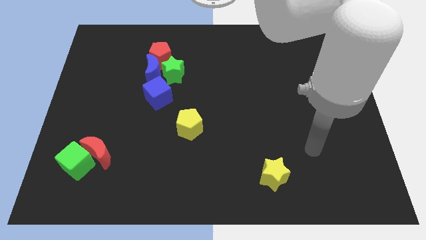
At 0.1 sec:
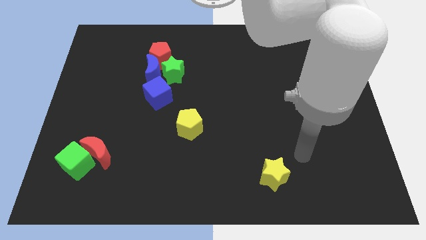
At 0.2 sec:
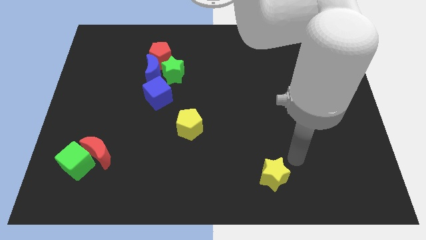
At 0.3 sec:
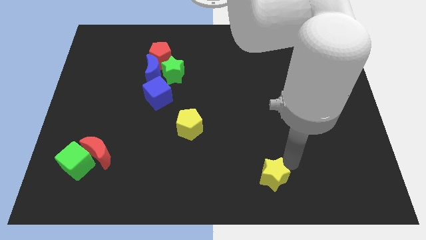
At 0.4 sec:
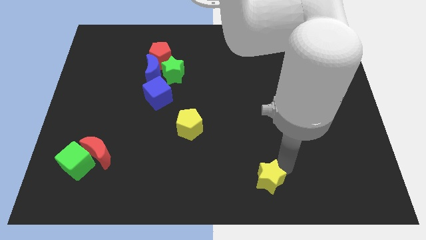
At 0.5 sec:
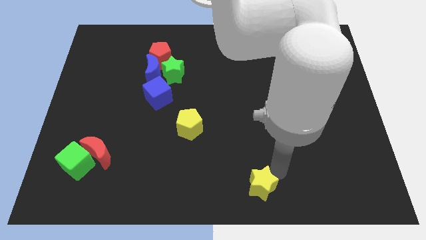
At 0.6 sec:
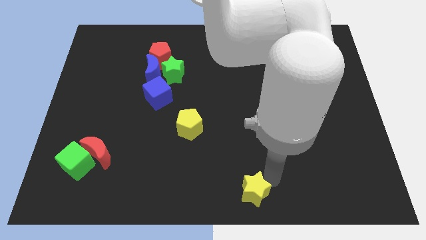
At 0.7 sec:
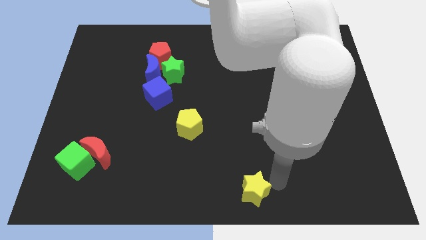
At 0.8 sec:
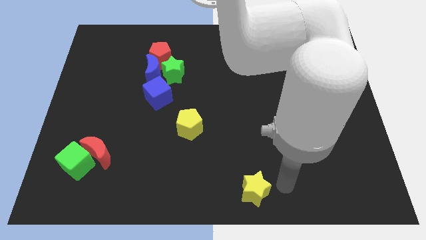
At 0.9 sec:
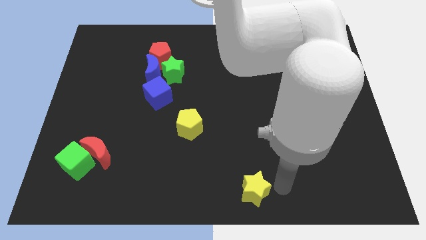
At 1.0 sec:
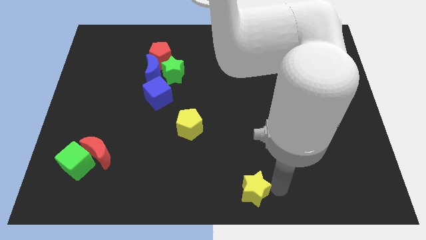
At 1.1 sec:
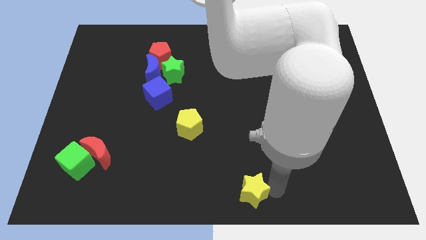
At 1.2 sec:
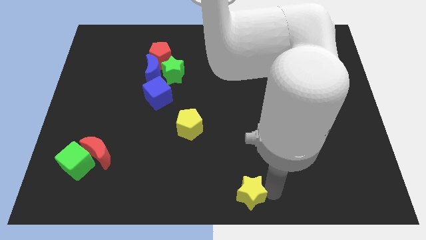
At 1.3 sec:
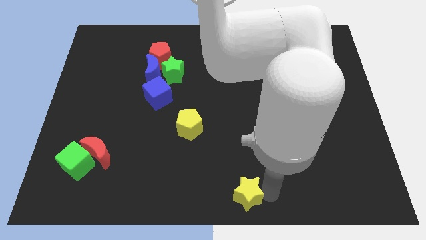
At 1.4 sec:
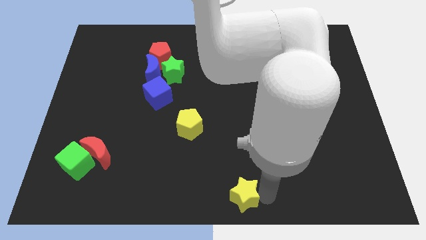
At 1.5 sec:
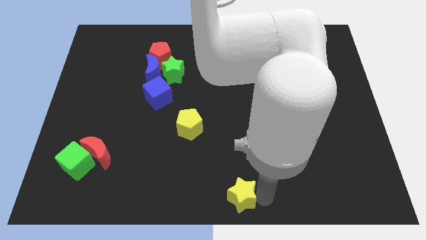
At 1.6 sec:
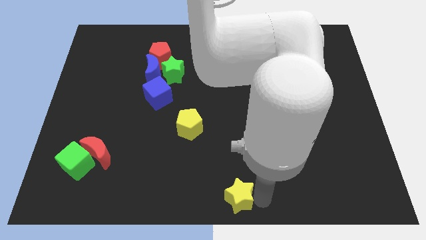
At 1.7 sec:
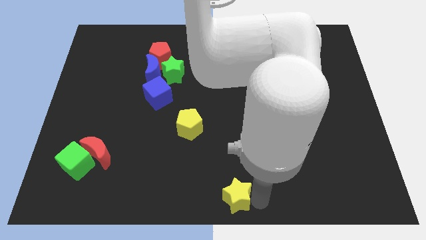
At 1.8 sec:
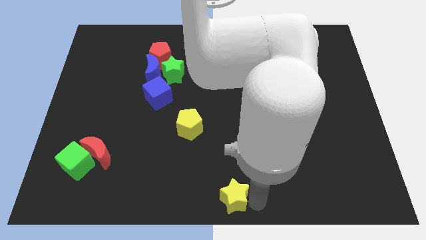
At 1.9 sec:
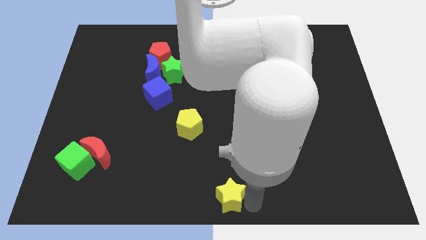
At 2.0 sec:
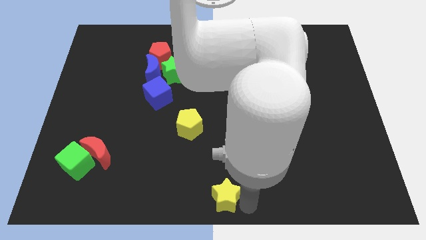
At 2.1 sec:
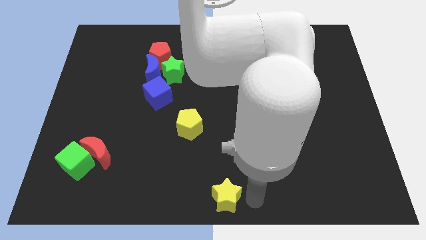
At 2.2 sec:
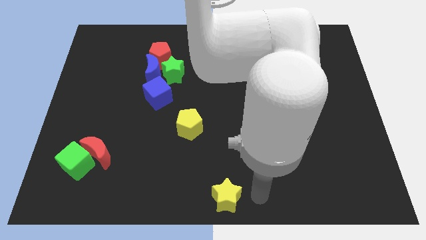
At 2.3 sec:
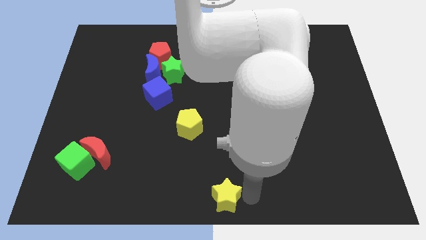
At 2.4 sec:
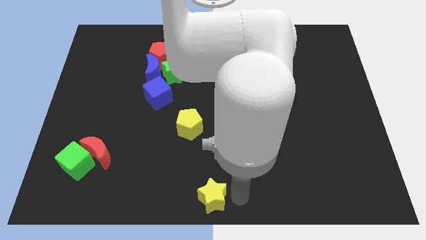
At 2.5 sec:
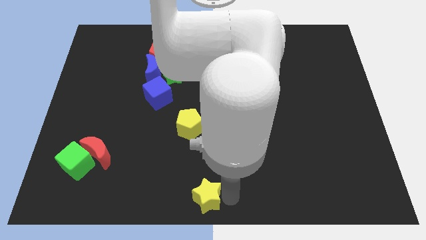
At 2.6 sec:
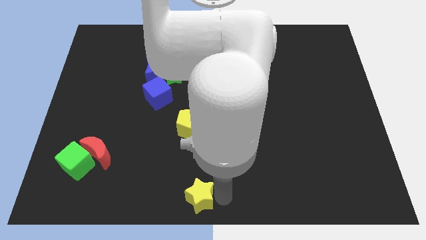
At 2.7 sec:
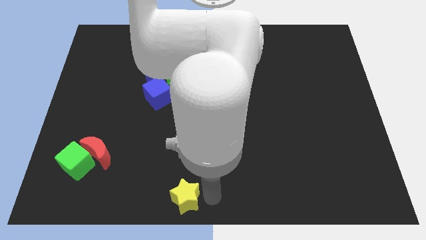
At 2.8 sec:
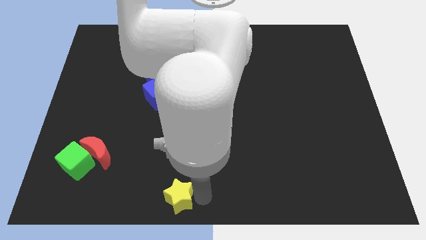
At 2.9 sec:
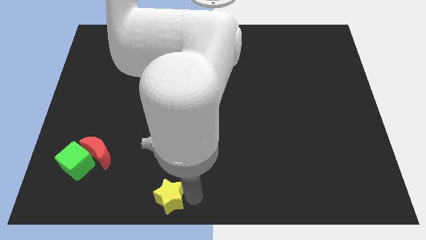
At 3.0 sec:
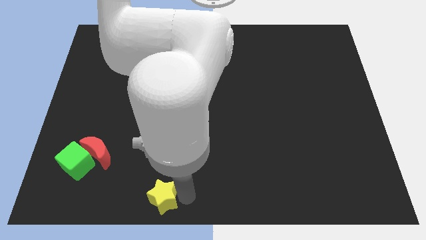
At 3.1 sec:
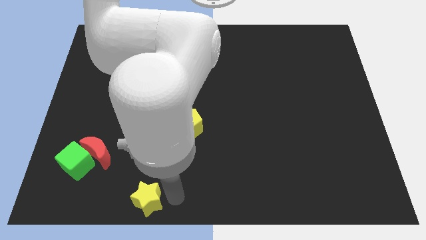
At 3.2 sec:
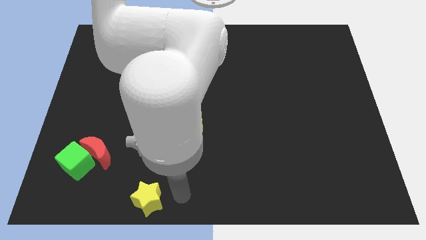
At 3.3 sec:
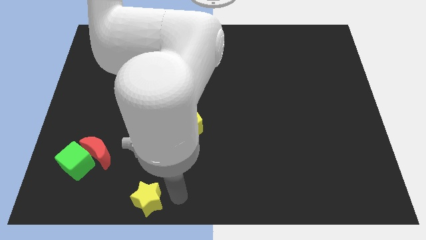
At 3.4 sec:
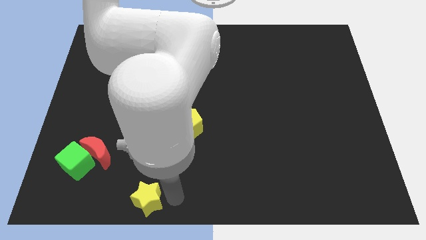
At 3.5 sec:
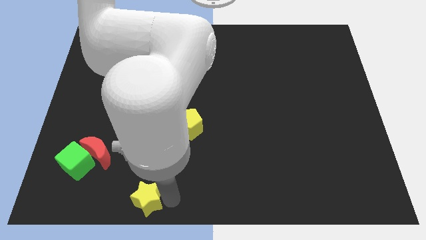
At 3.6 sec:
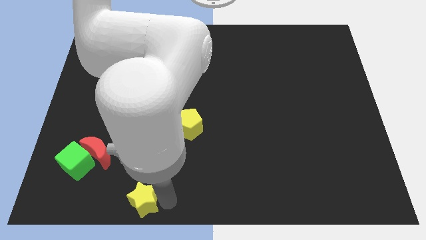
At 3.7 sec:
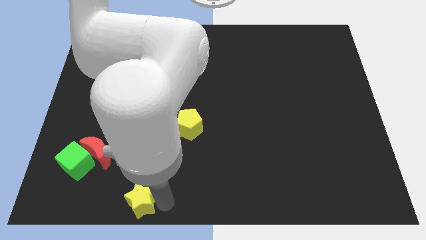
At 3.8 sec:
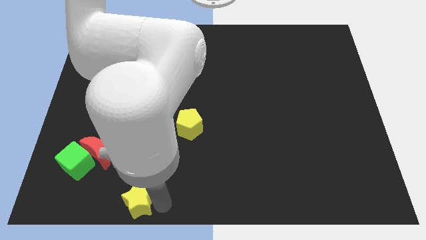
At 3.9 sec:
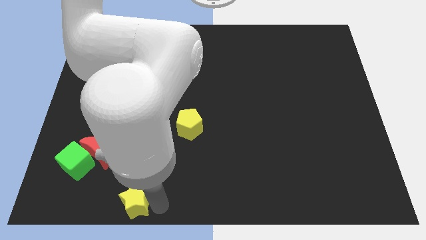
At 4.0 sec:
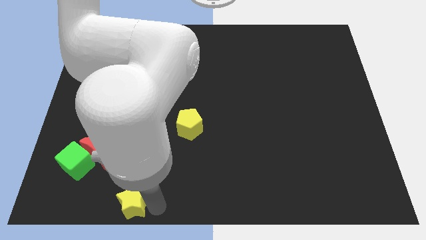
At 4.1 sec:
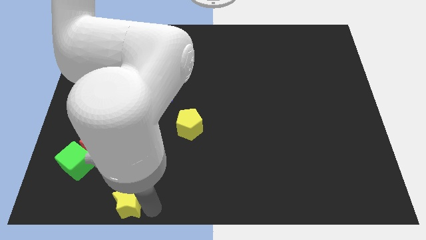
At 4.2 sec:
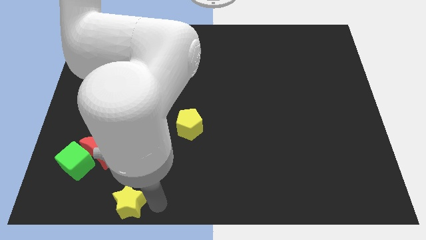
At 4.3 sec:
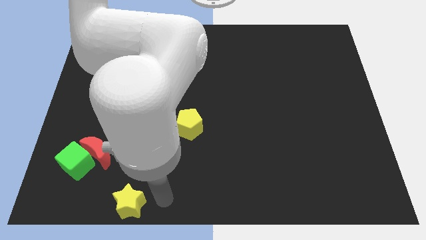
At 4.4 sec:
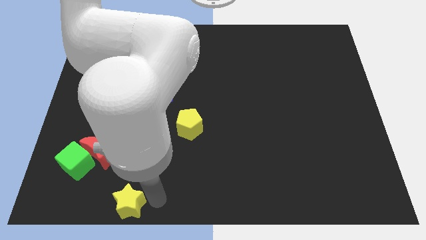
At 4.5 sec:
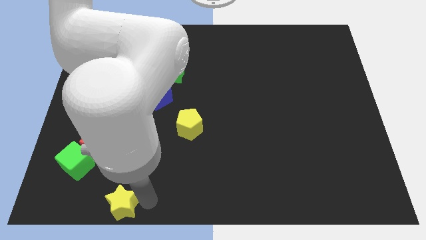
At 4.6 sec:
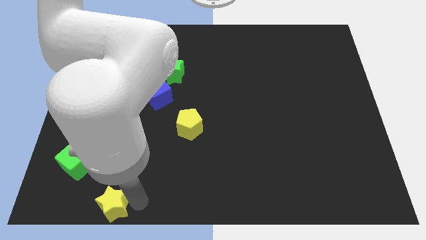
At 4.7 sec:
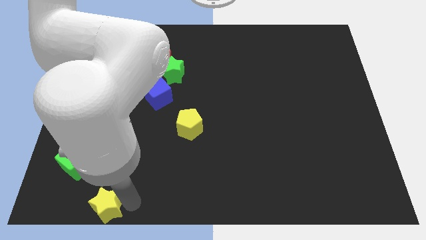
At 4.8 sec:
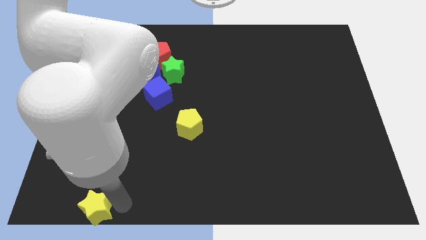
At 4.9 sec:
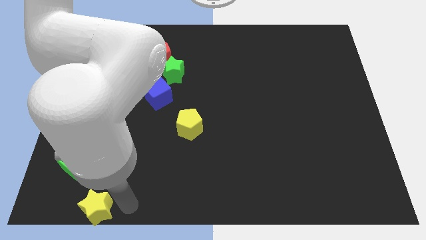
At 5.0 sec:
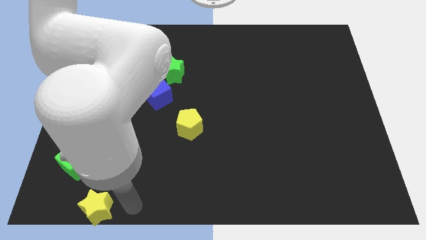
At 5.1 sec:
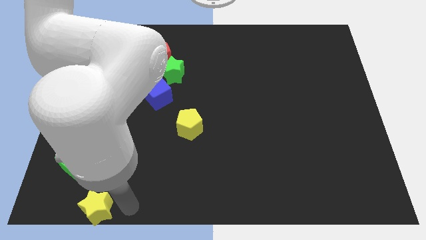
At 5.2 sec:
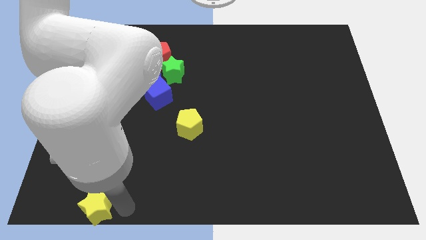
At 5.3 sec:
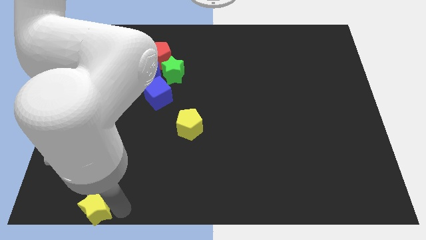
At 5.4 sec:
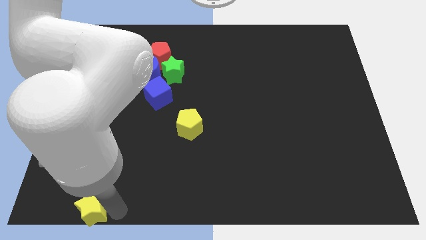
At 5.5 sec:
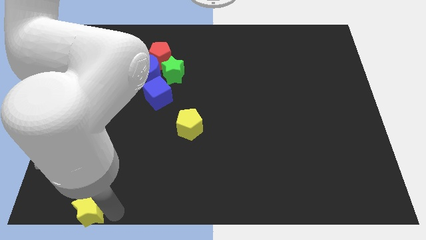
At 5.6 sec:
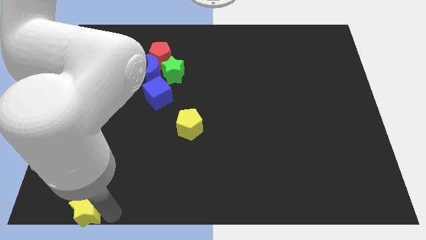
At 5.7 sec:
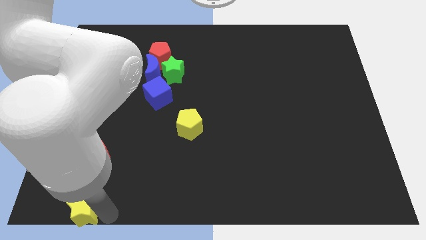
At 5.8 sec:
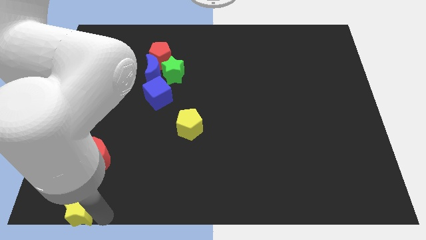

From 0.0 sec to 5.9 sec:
put the yellow star to the bottom left of the board
